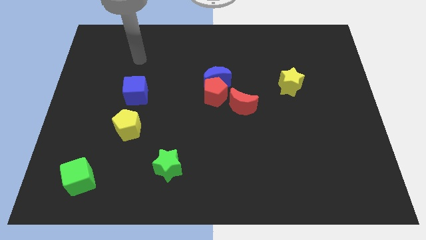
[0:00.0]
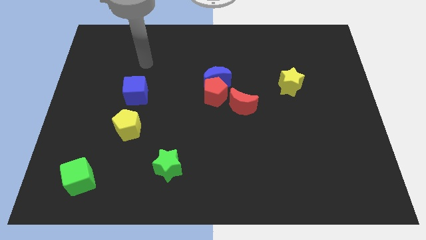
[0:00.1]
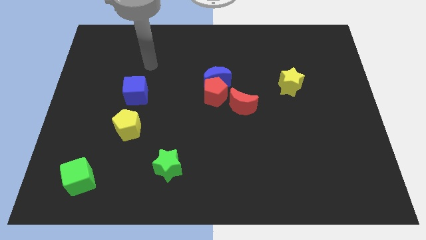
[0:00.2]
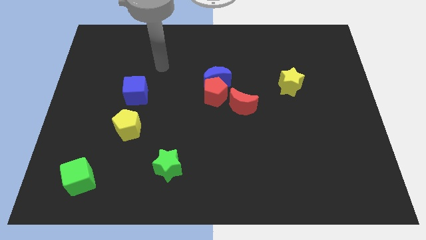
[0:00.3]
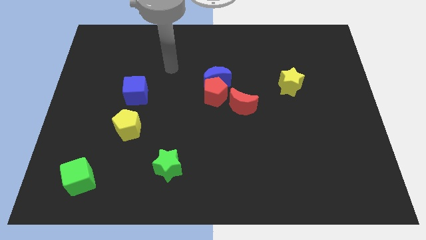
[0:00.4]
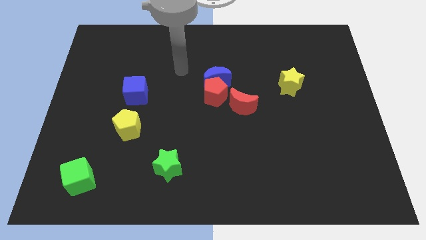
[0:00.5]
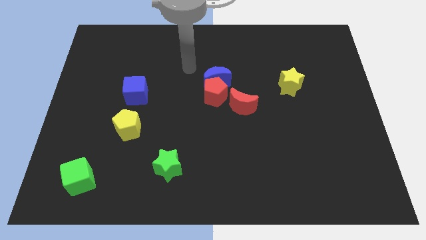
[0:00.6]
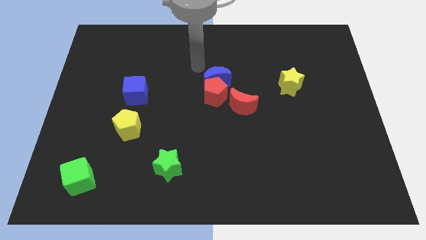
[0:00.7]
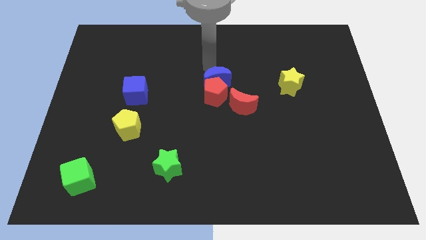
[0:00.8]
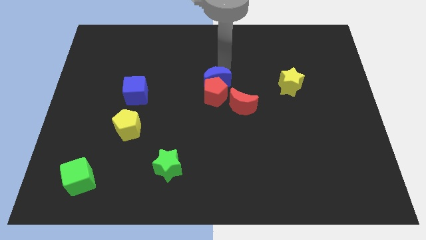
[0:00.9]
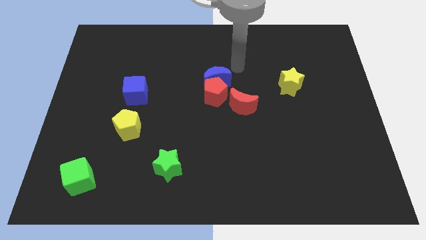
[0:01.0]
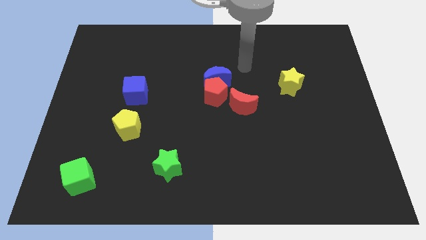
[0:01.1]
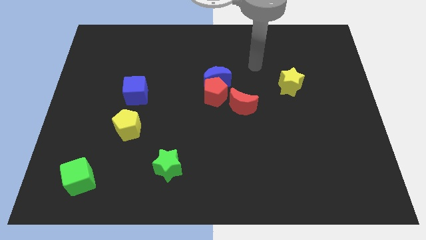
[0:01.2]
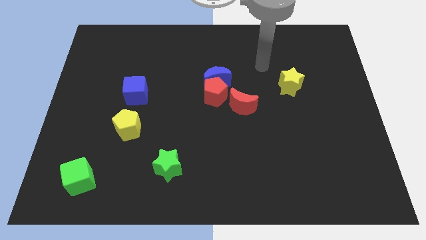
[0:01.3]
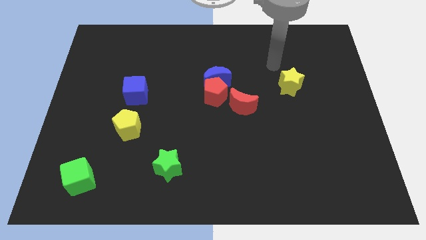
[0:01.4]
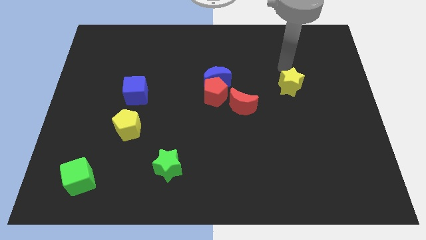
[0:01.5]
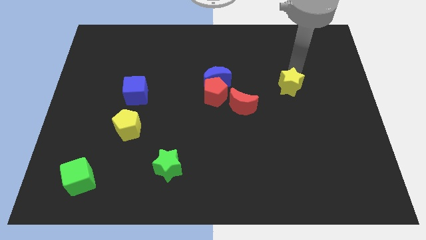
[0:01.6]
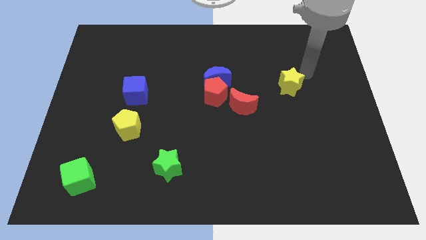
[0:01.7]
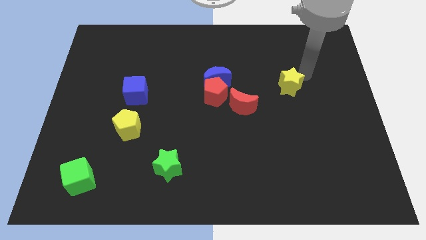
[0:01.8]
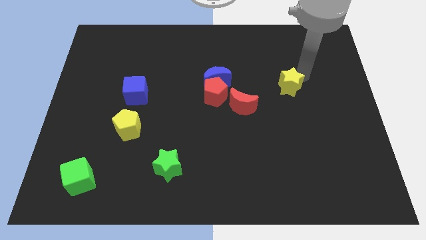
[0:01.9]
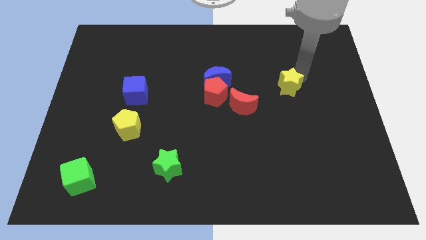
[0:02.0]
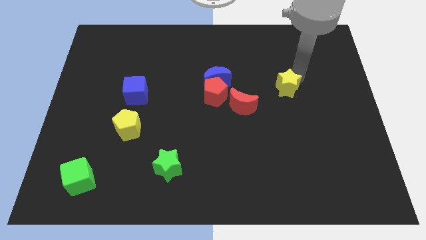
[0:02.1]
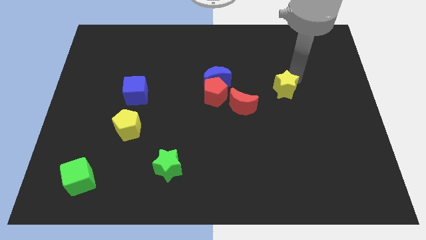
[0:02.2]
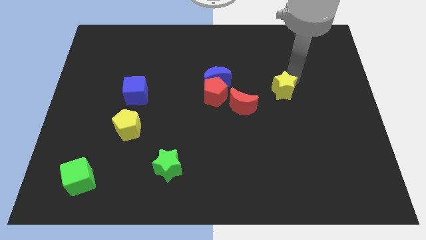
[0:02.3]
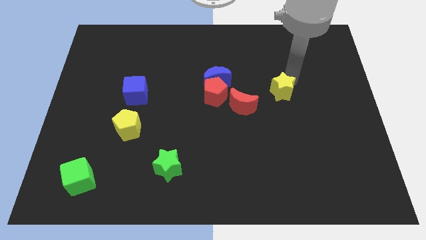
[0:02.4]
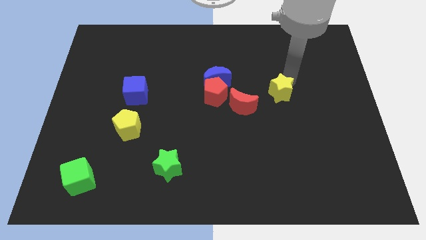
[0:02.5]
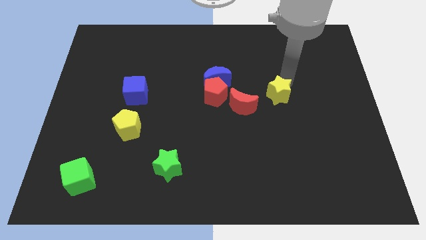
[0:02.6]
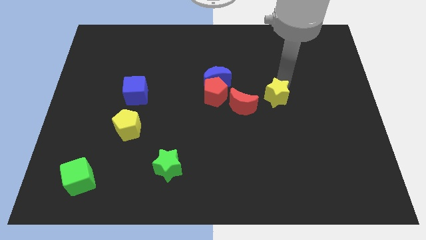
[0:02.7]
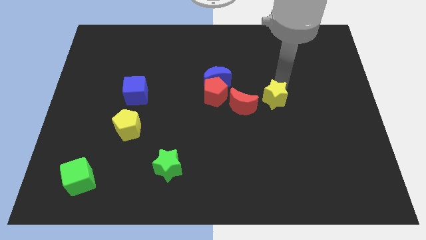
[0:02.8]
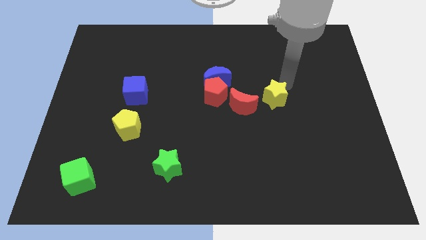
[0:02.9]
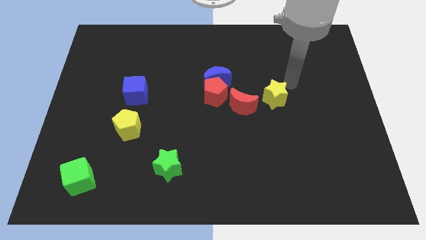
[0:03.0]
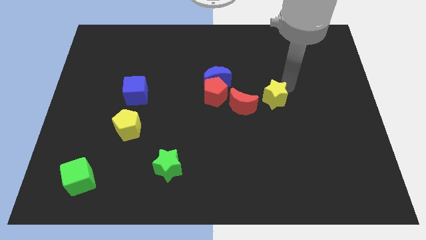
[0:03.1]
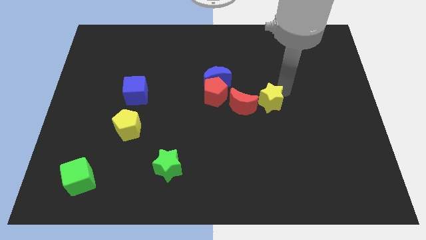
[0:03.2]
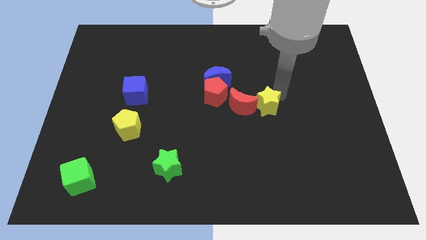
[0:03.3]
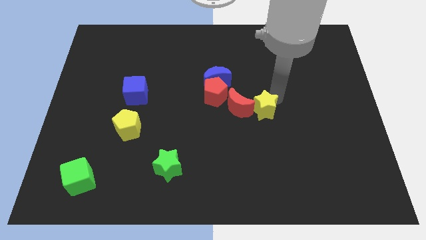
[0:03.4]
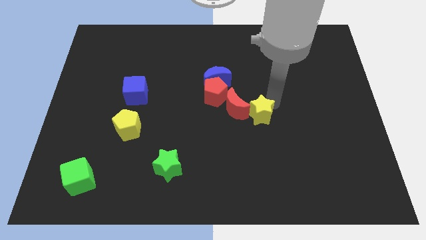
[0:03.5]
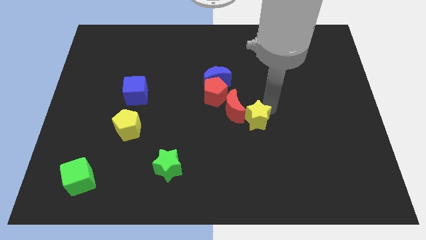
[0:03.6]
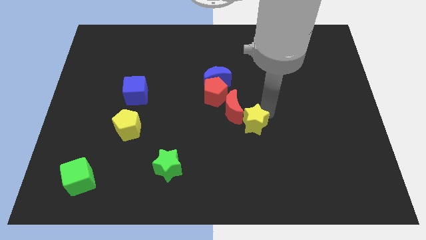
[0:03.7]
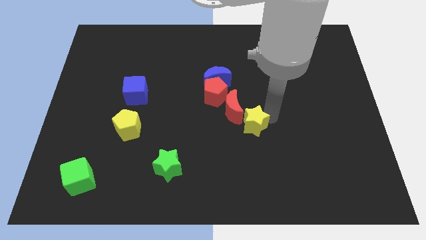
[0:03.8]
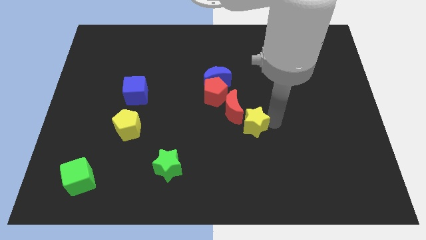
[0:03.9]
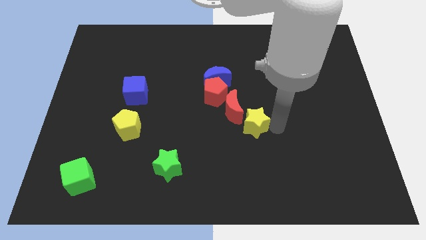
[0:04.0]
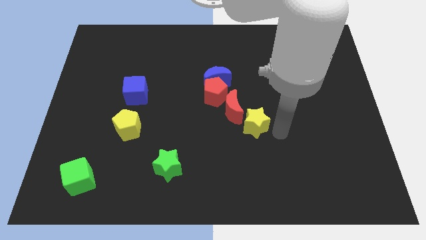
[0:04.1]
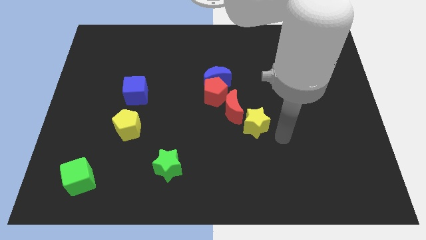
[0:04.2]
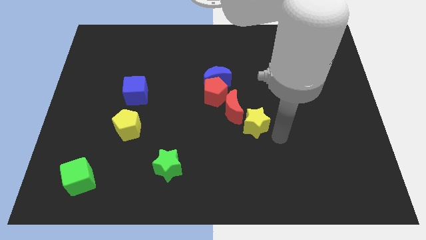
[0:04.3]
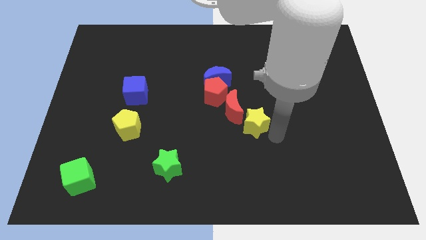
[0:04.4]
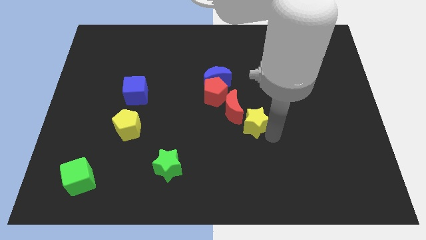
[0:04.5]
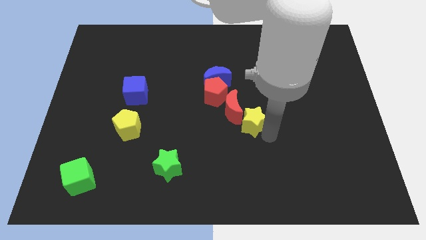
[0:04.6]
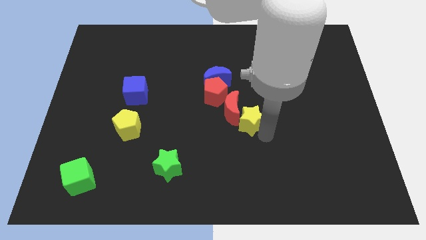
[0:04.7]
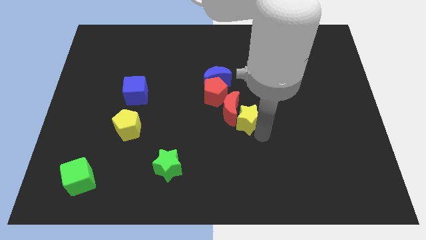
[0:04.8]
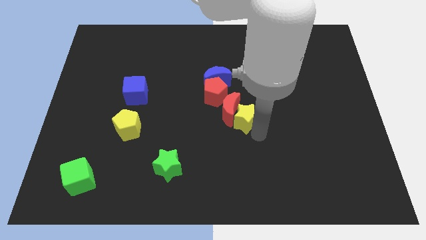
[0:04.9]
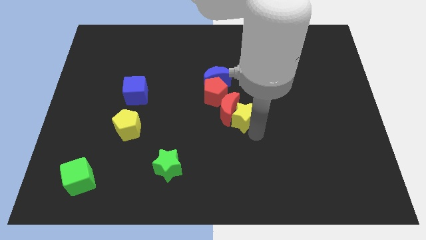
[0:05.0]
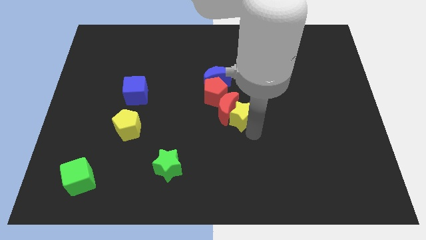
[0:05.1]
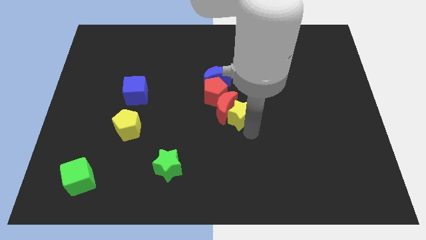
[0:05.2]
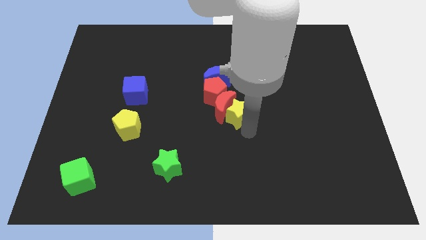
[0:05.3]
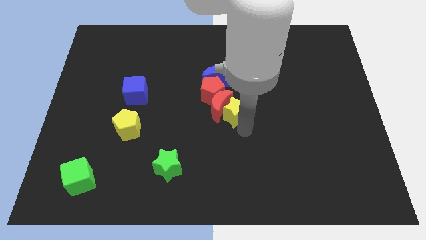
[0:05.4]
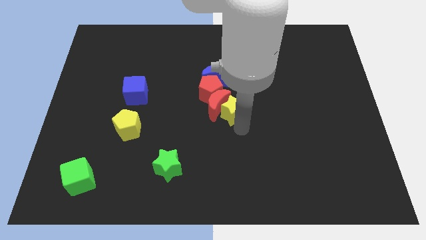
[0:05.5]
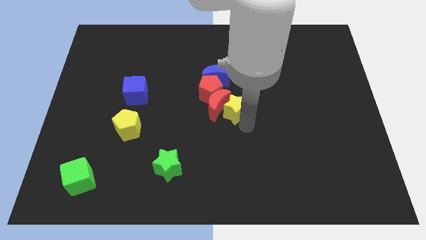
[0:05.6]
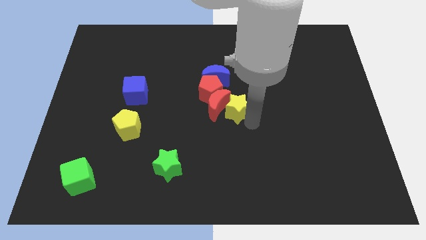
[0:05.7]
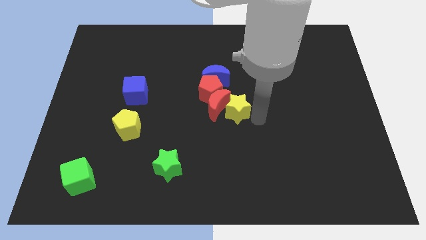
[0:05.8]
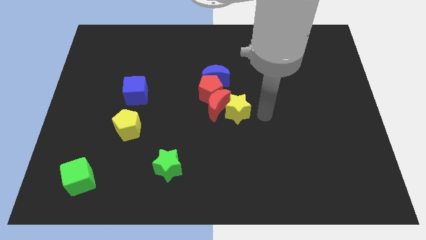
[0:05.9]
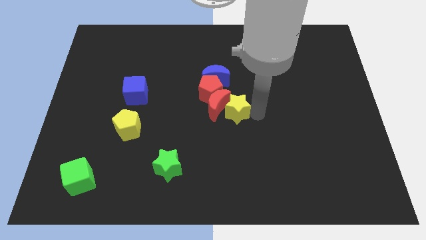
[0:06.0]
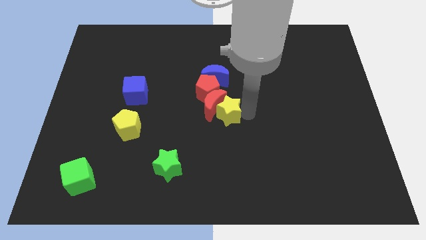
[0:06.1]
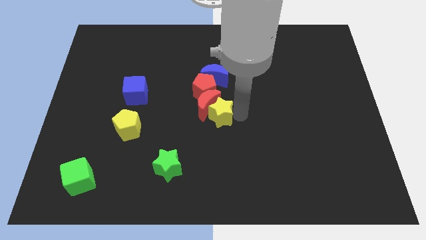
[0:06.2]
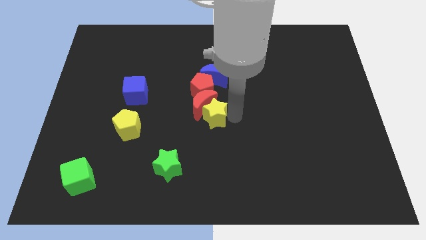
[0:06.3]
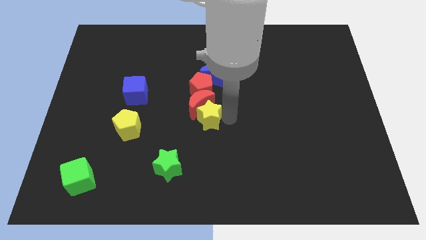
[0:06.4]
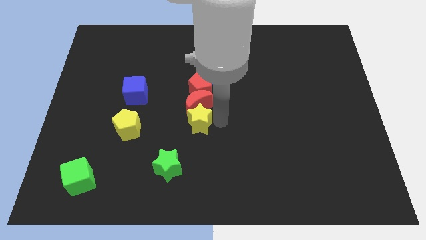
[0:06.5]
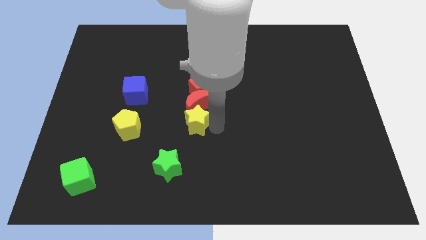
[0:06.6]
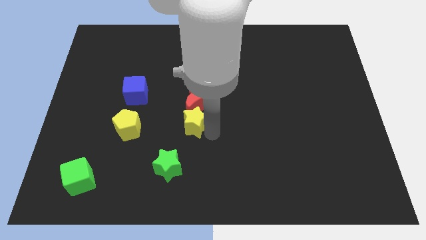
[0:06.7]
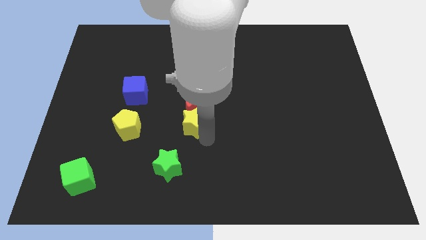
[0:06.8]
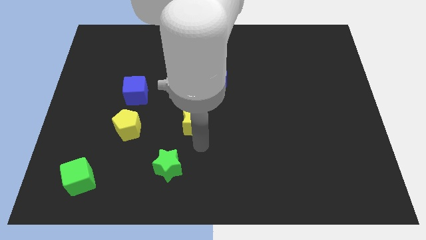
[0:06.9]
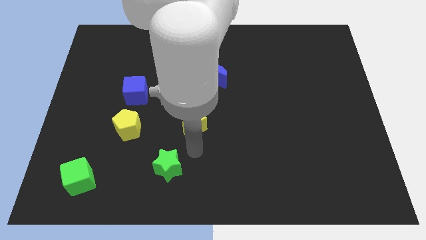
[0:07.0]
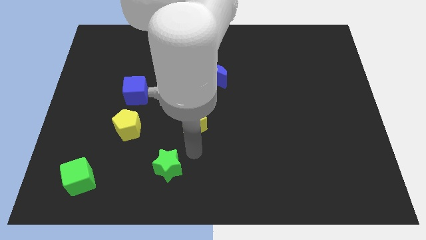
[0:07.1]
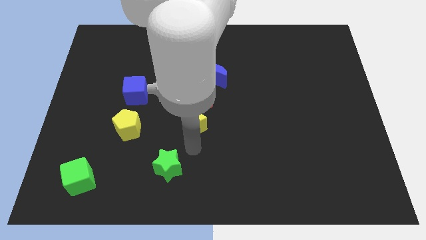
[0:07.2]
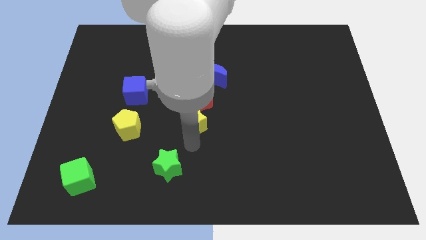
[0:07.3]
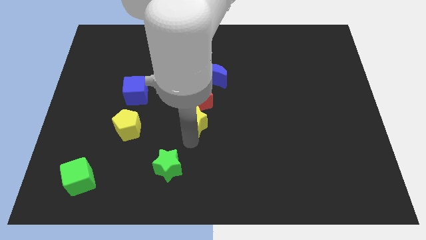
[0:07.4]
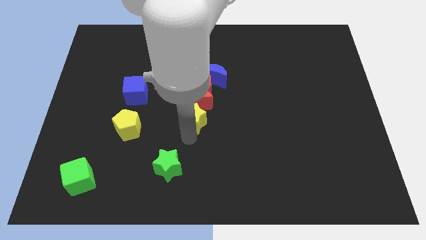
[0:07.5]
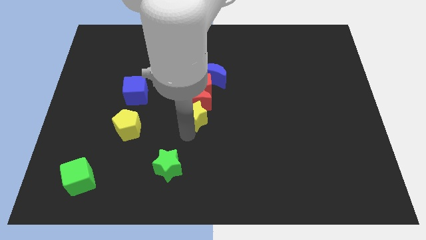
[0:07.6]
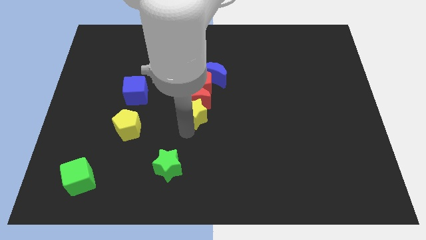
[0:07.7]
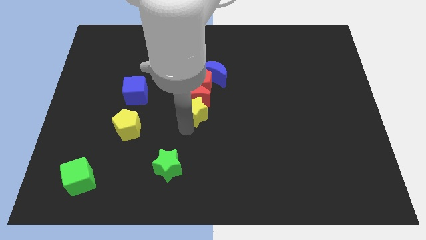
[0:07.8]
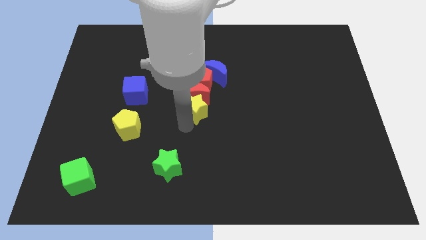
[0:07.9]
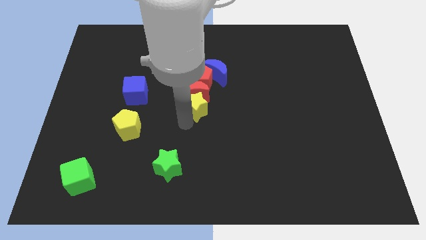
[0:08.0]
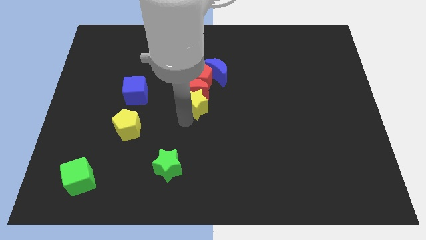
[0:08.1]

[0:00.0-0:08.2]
put the yellow star to the bottom left of the blue moon
